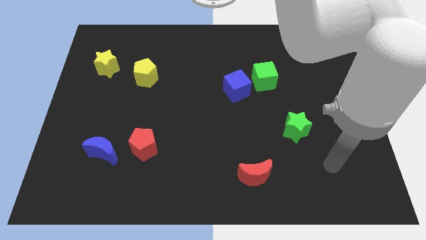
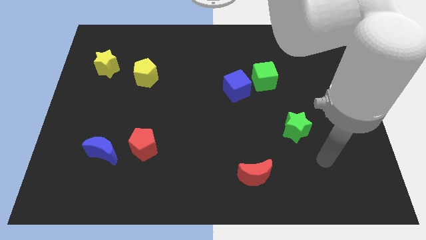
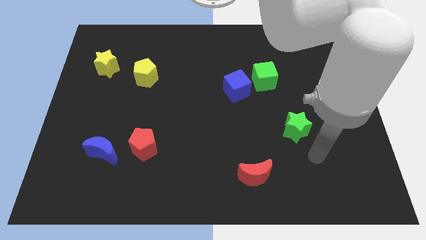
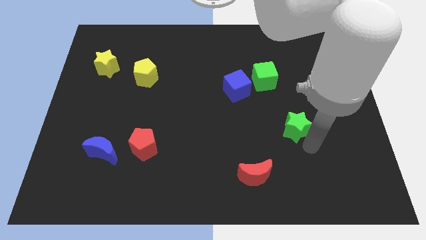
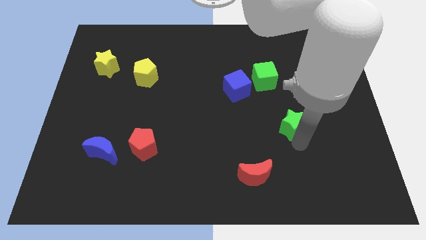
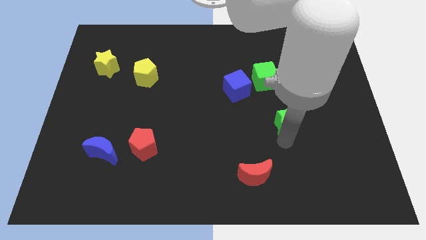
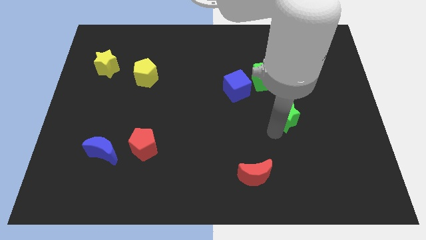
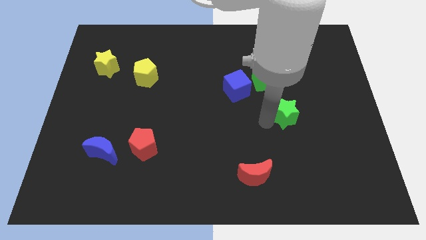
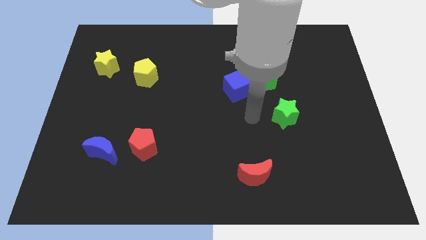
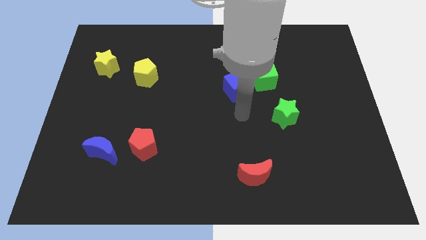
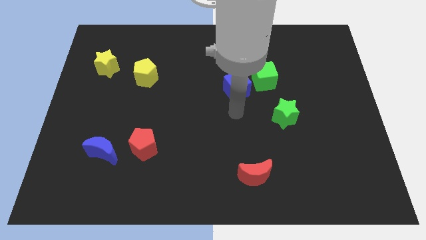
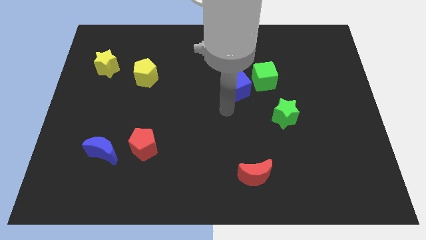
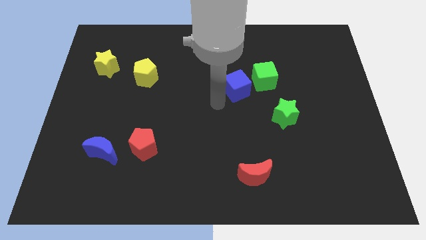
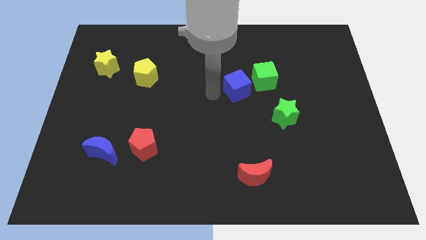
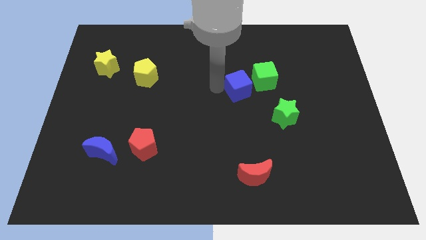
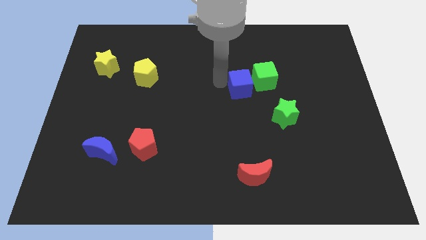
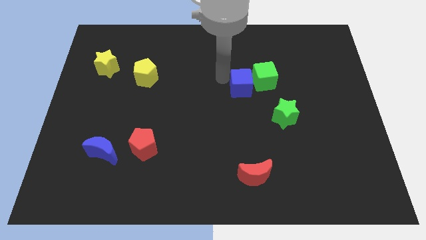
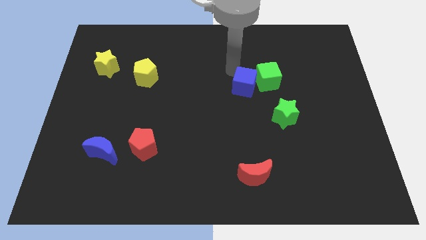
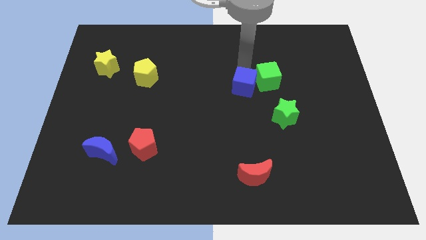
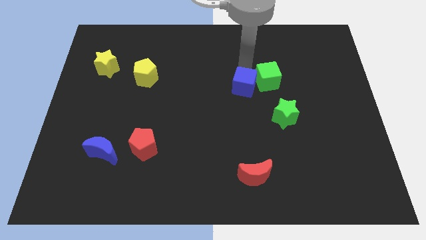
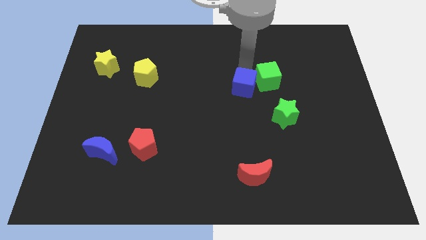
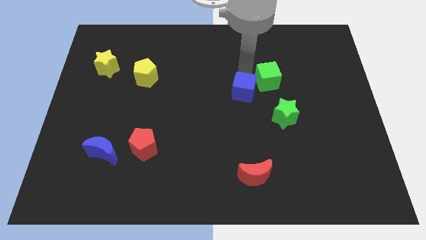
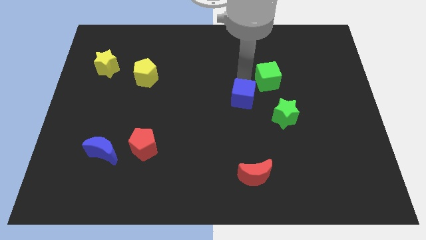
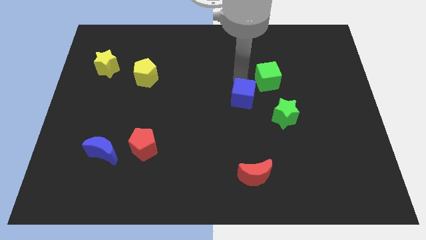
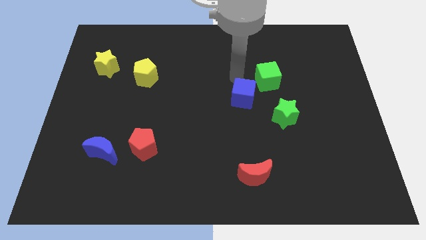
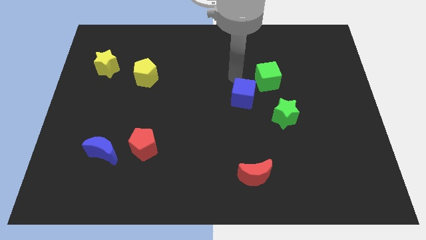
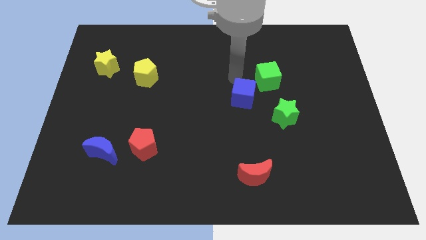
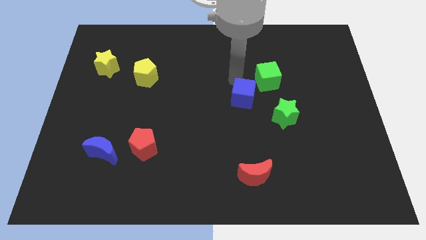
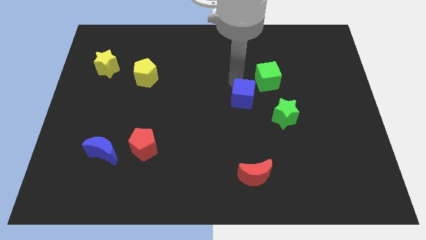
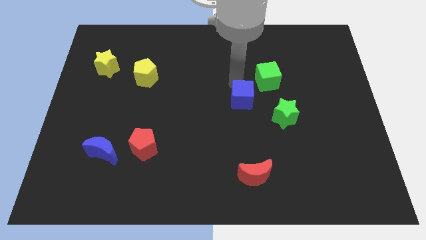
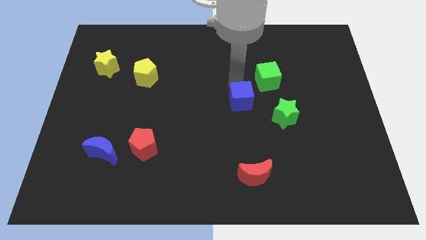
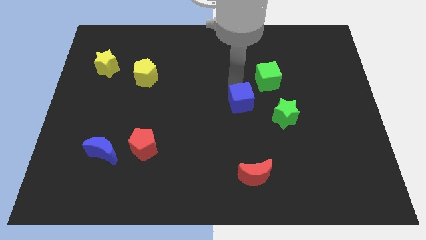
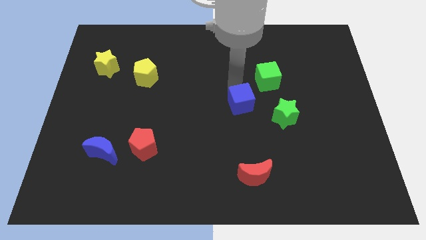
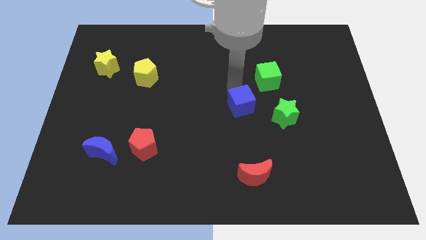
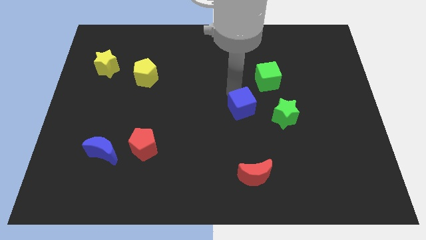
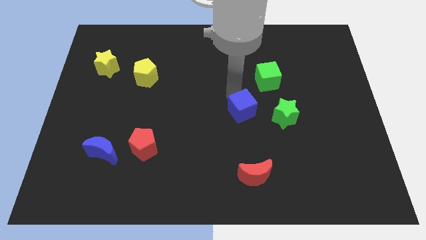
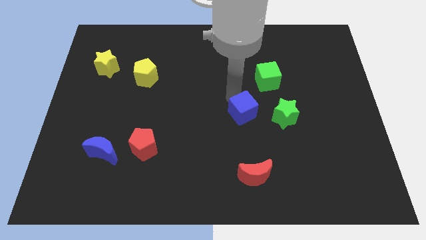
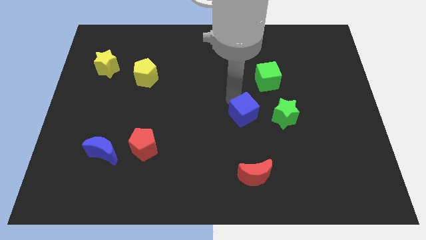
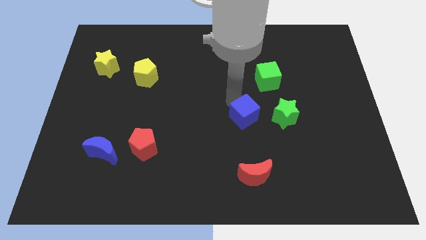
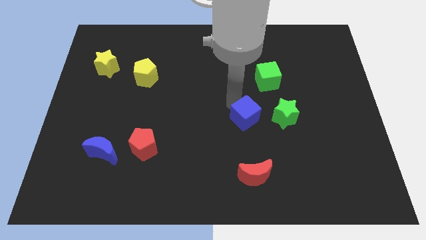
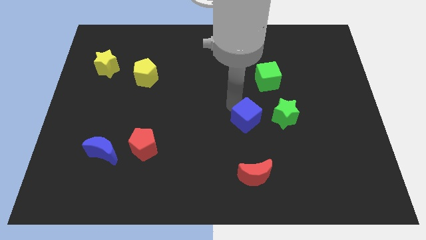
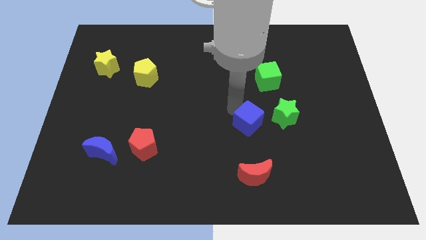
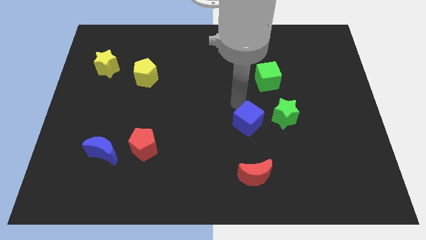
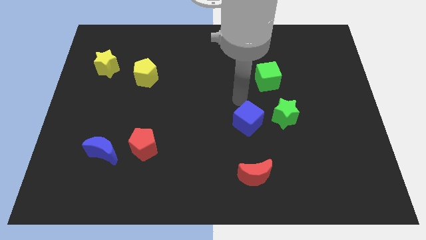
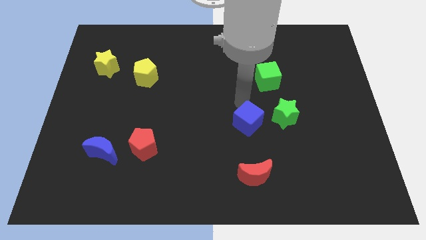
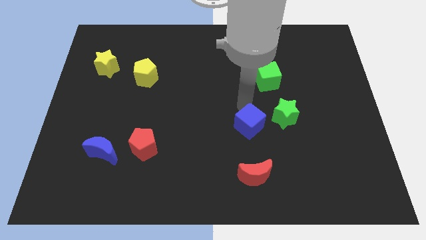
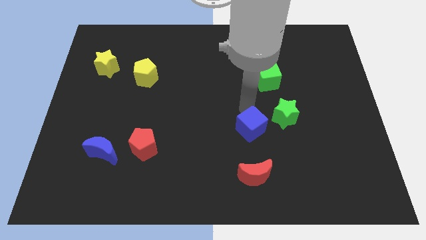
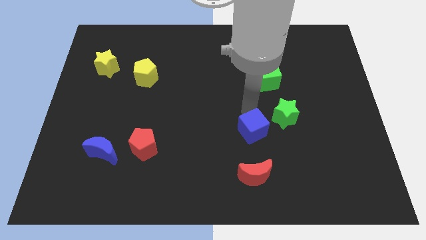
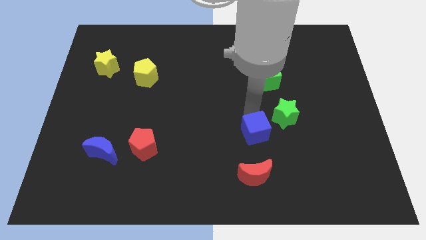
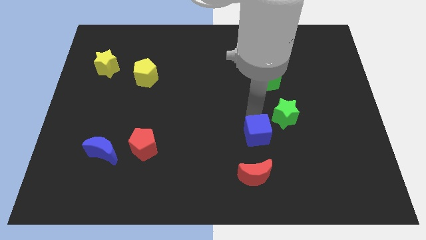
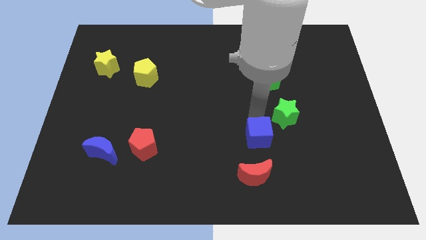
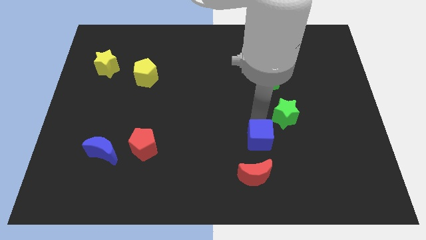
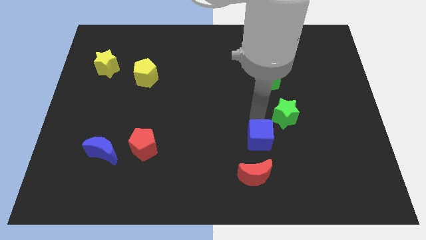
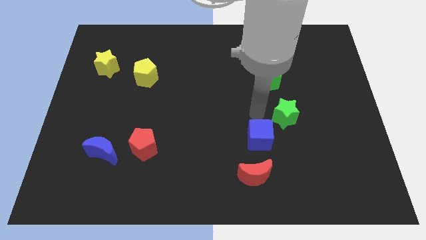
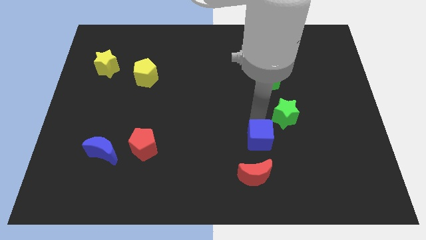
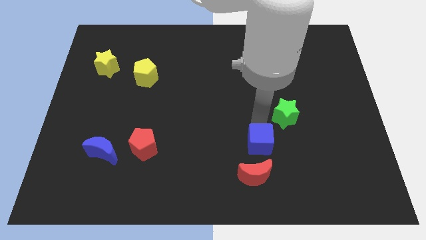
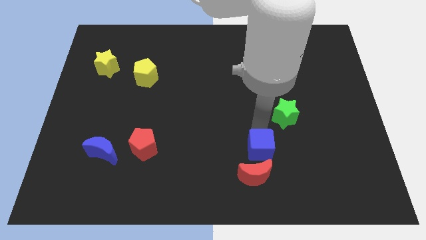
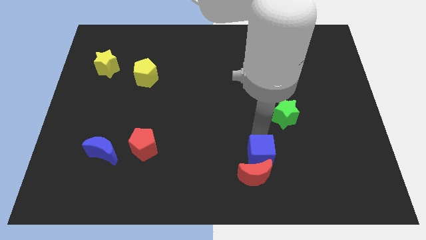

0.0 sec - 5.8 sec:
put the blue cube close to the red moon

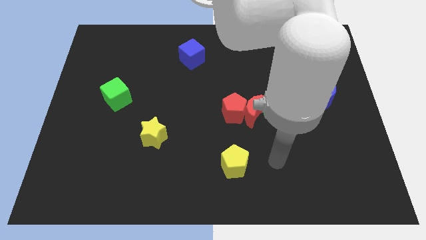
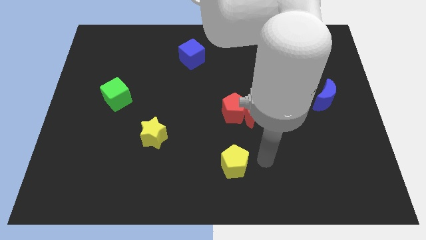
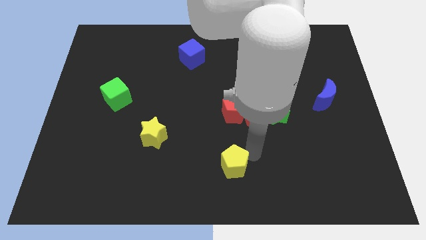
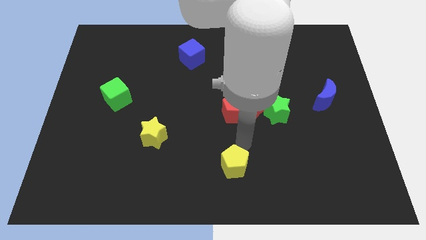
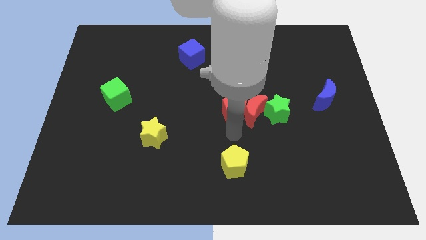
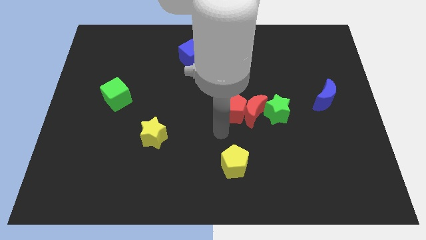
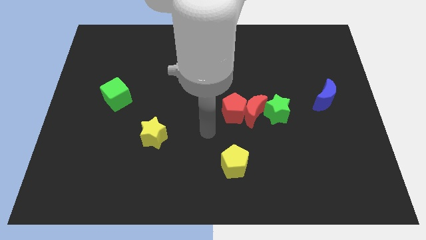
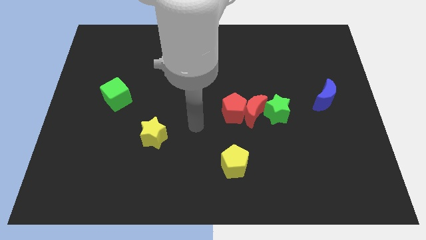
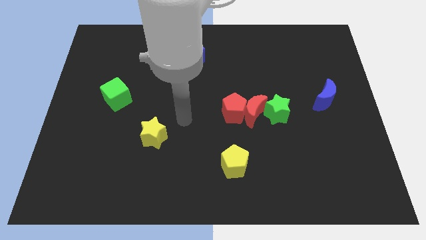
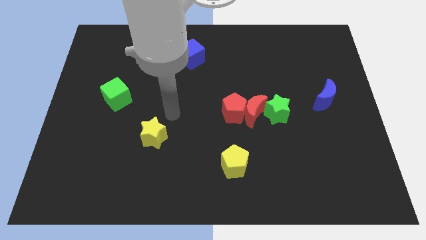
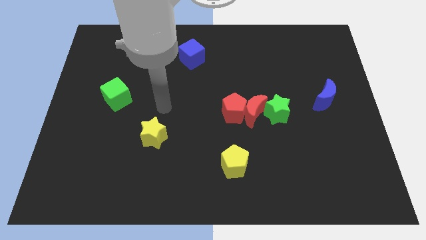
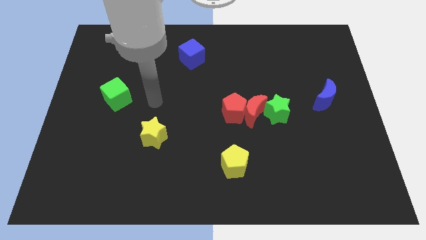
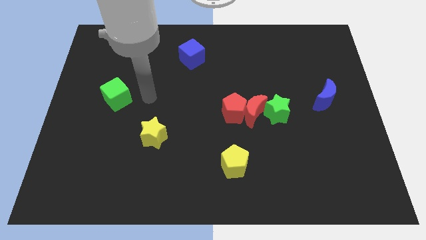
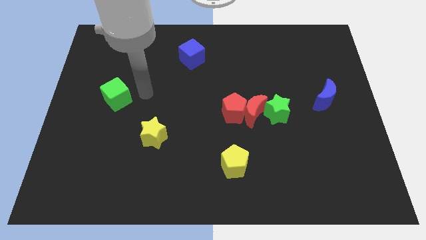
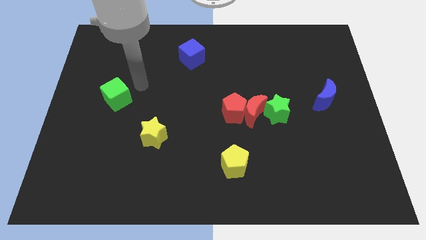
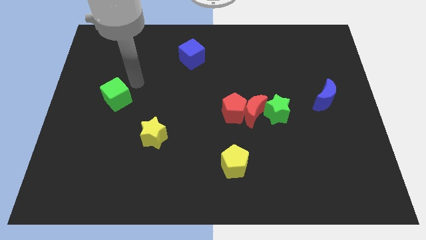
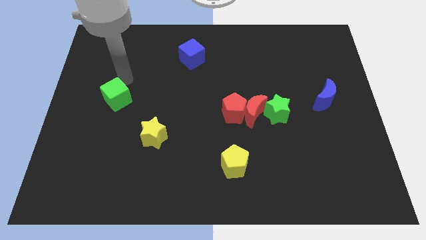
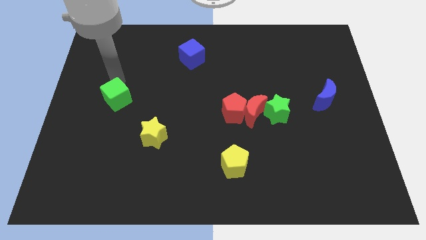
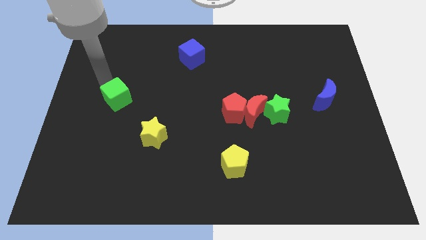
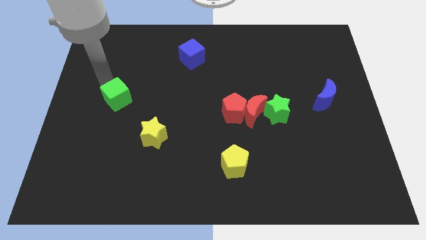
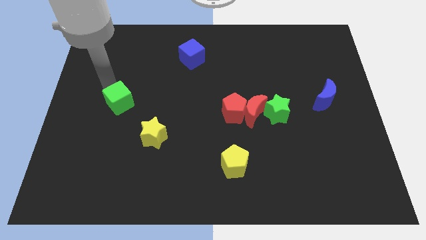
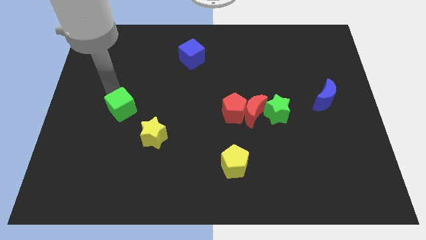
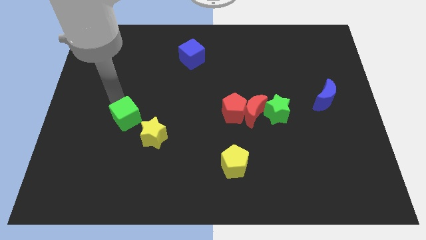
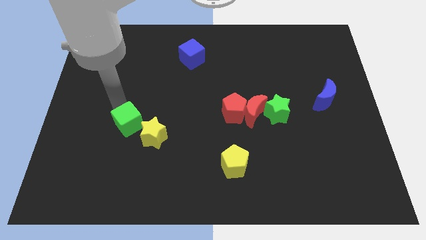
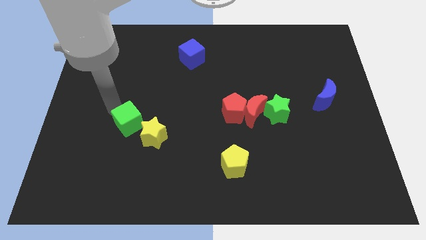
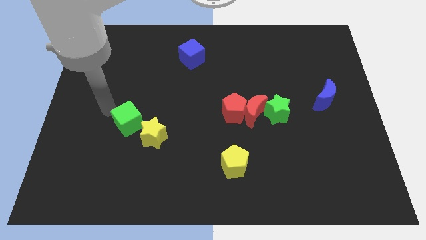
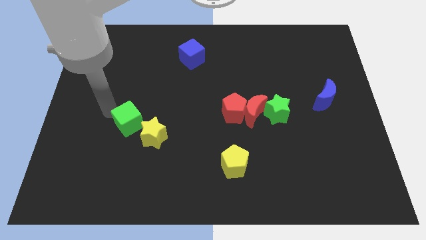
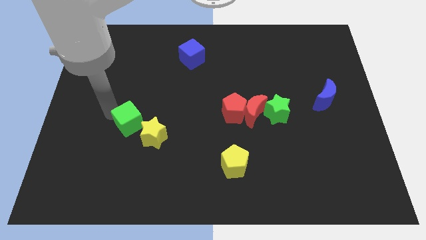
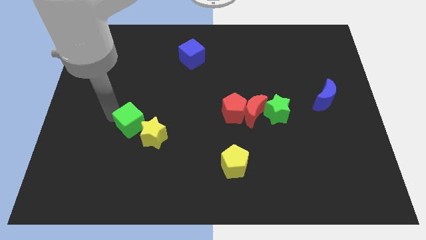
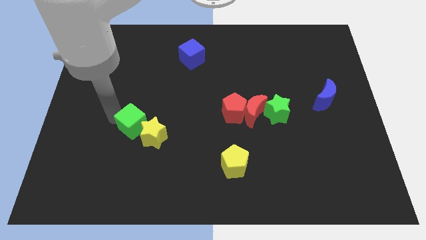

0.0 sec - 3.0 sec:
put the green cube next to the yellow star

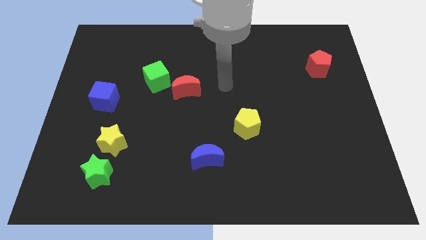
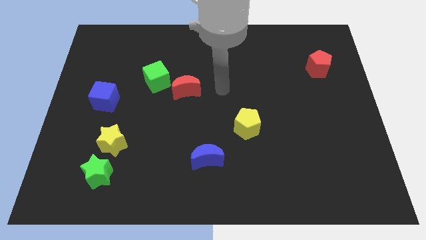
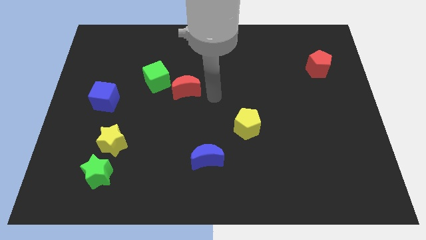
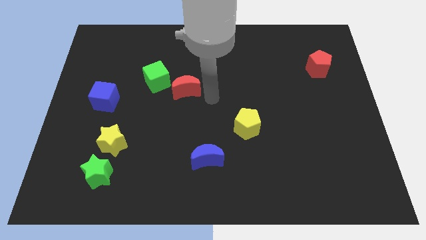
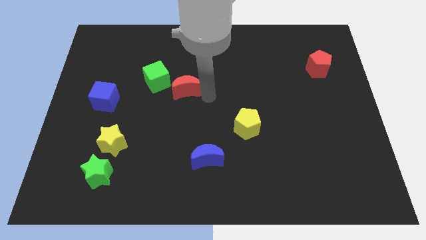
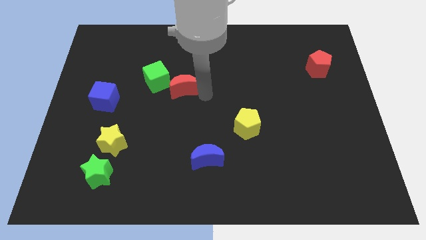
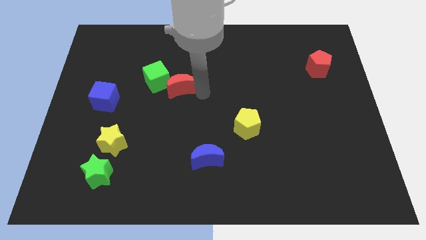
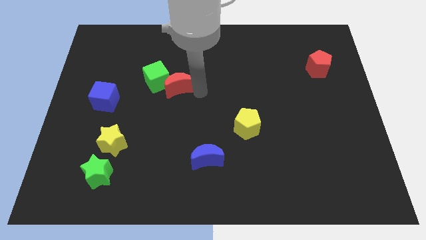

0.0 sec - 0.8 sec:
put the red moon towards the green cube
